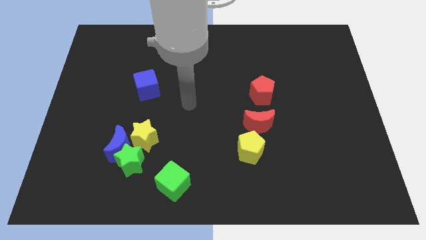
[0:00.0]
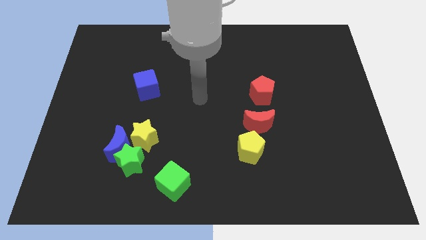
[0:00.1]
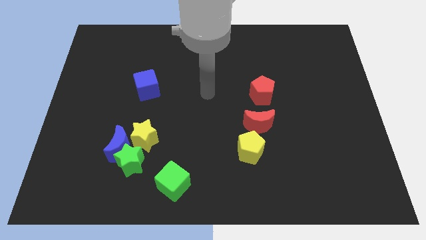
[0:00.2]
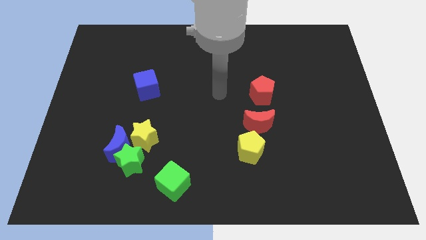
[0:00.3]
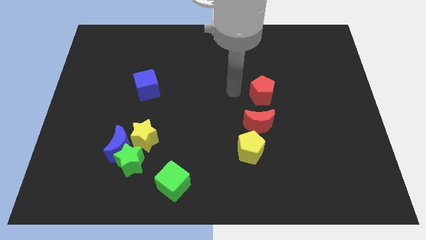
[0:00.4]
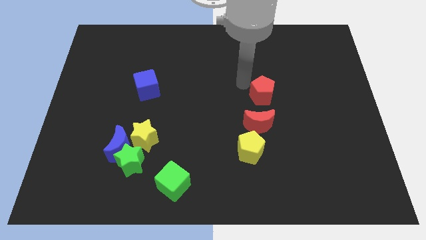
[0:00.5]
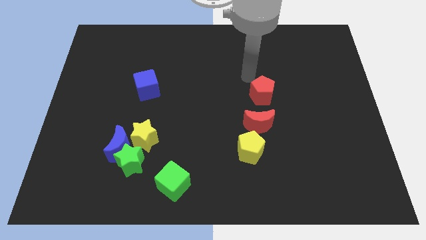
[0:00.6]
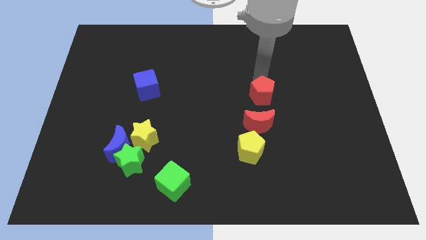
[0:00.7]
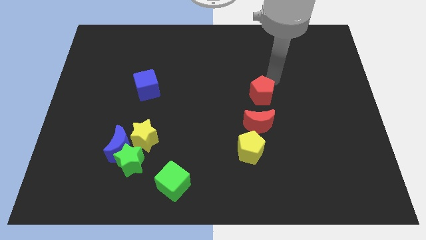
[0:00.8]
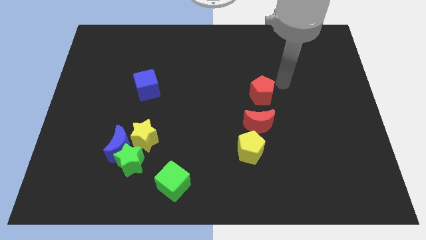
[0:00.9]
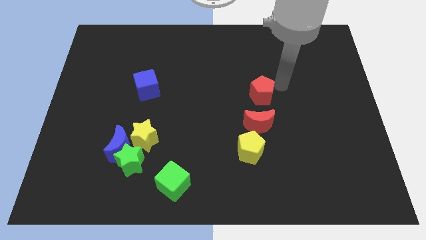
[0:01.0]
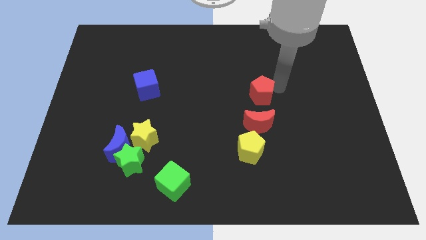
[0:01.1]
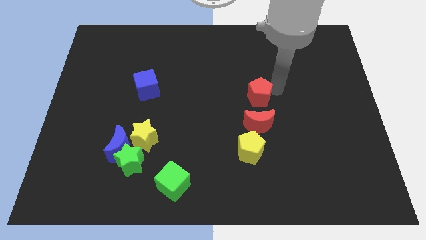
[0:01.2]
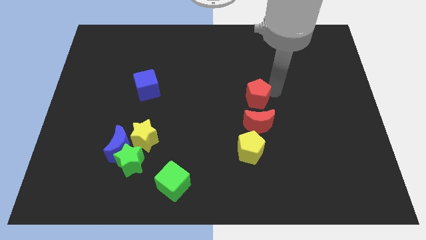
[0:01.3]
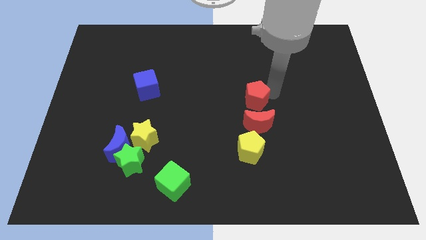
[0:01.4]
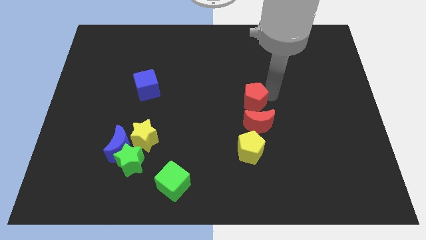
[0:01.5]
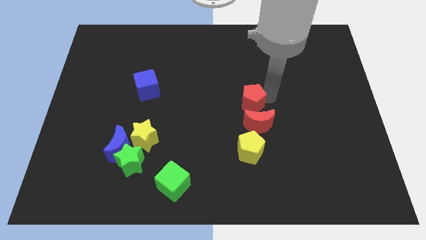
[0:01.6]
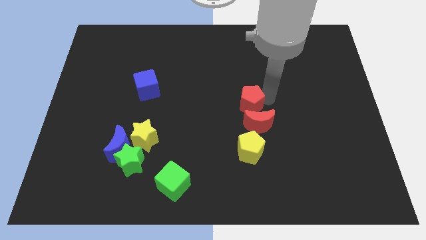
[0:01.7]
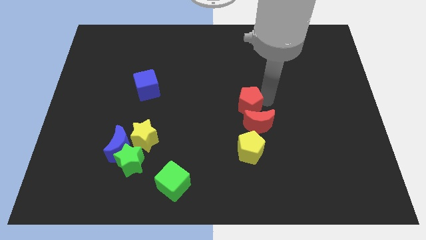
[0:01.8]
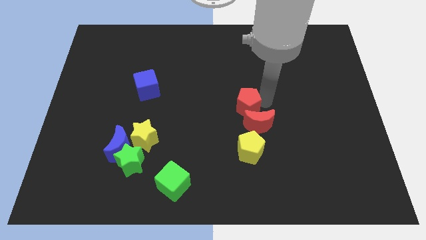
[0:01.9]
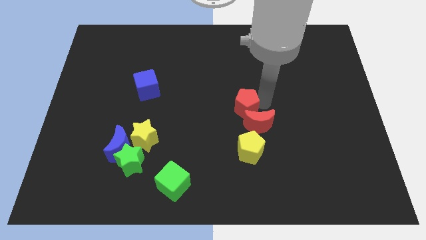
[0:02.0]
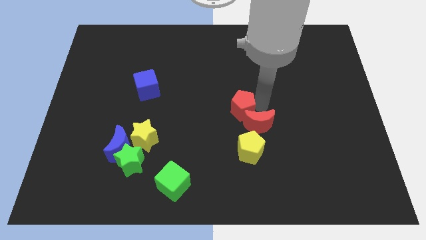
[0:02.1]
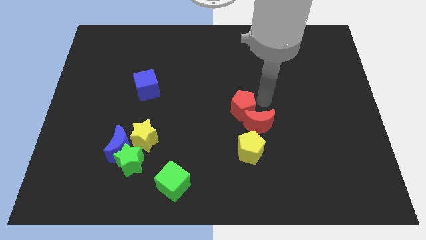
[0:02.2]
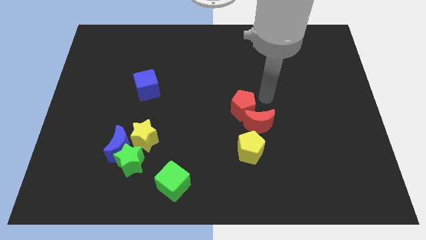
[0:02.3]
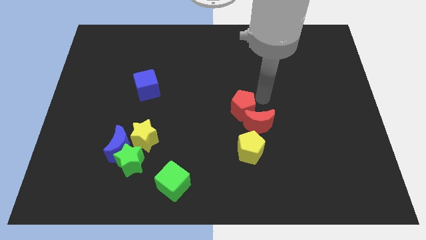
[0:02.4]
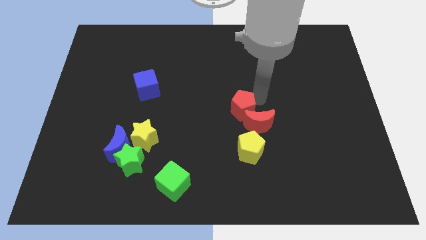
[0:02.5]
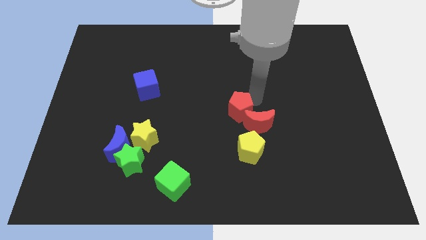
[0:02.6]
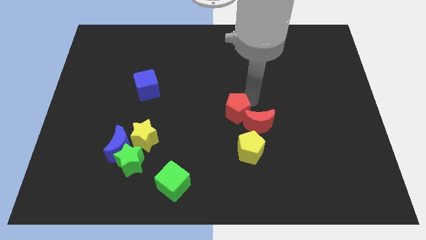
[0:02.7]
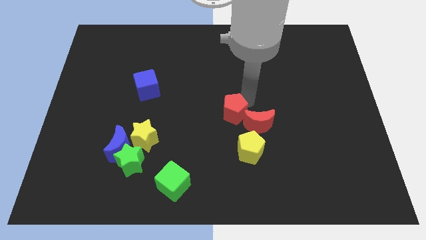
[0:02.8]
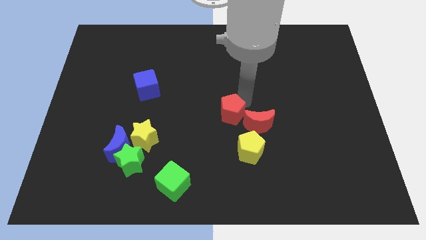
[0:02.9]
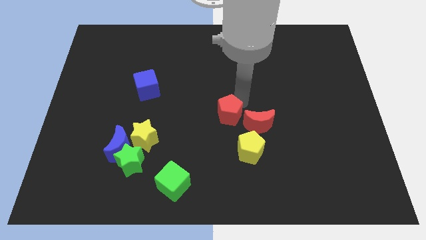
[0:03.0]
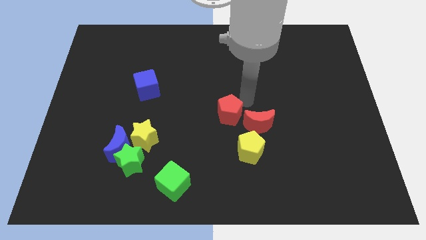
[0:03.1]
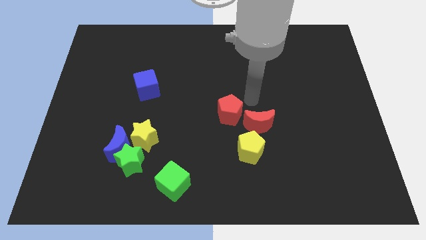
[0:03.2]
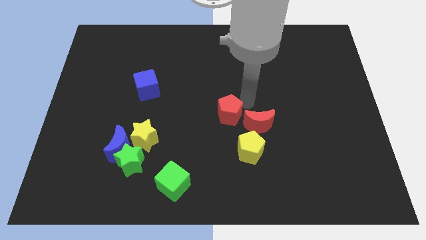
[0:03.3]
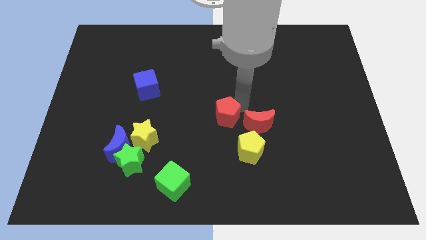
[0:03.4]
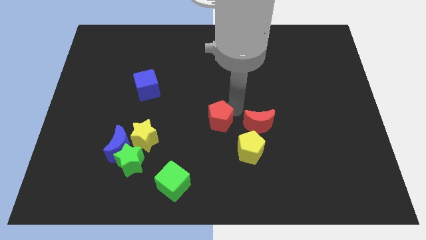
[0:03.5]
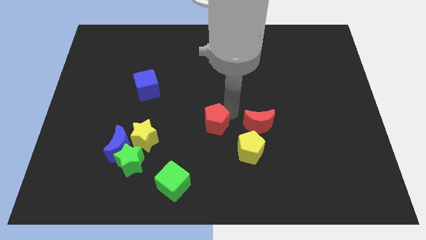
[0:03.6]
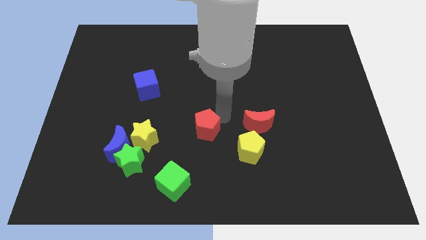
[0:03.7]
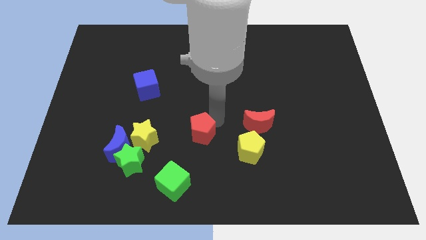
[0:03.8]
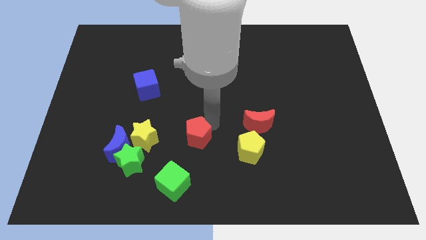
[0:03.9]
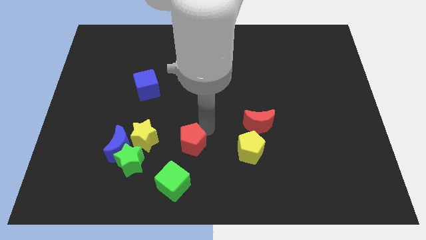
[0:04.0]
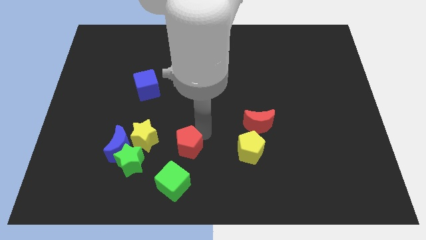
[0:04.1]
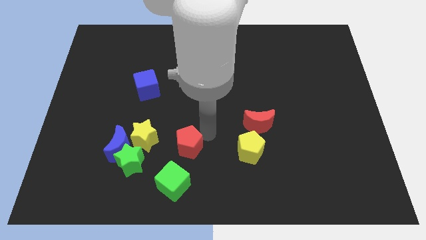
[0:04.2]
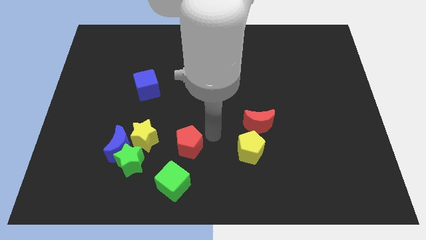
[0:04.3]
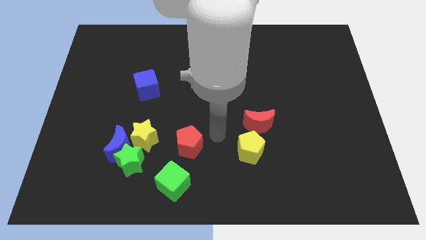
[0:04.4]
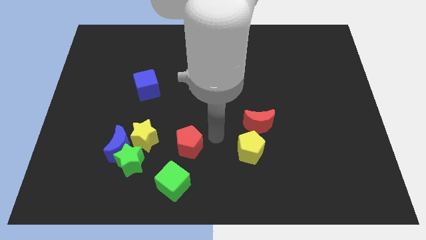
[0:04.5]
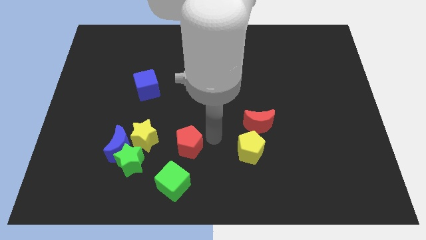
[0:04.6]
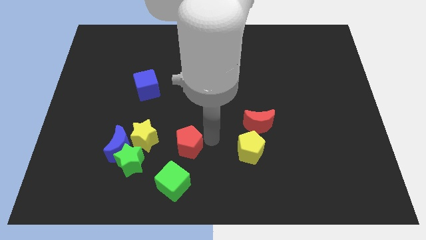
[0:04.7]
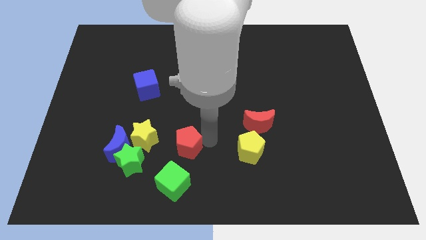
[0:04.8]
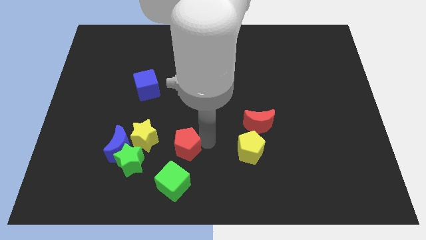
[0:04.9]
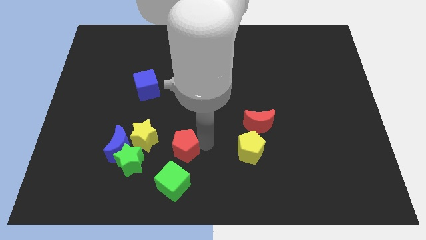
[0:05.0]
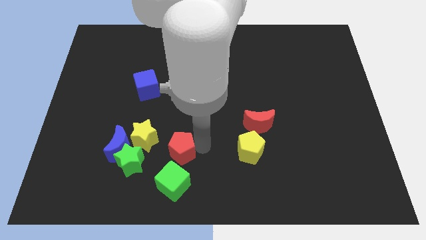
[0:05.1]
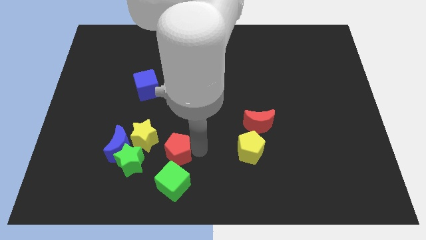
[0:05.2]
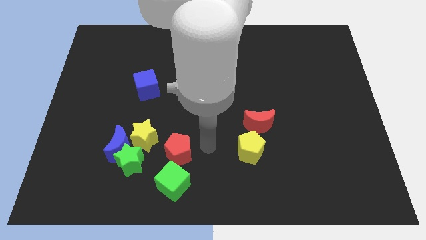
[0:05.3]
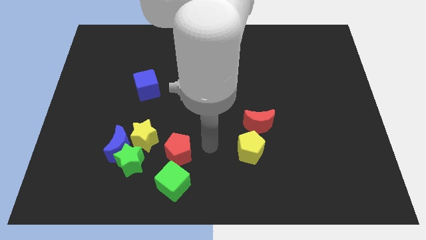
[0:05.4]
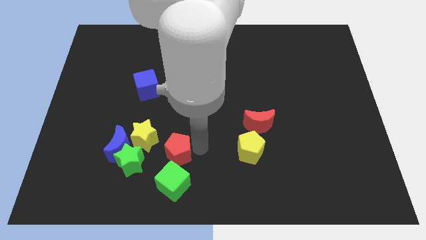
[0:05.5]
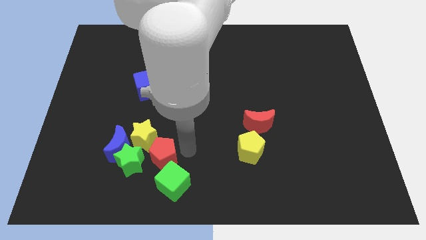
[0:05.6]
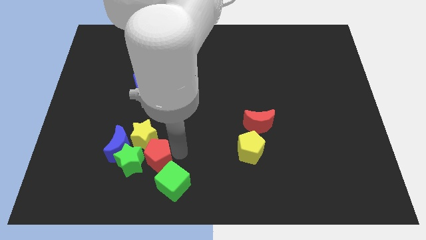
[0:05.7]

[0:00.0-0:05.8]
put the red pentagon to the green star
